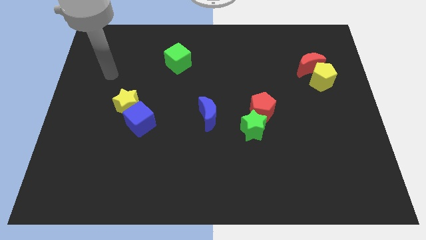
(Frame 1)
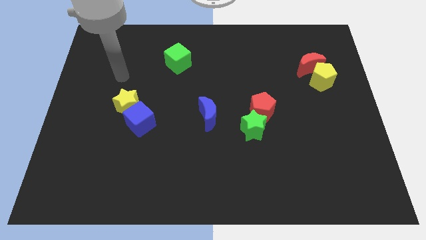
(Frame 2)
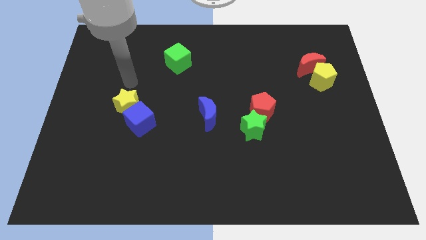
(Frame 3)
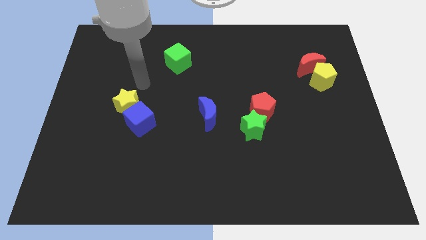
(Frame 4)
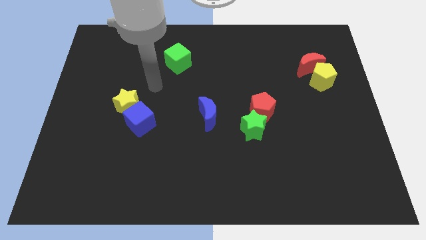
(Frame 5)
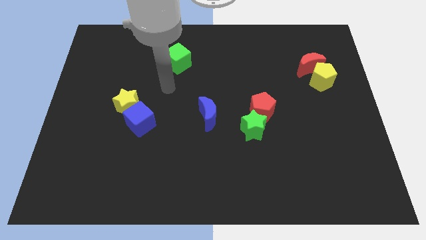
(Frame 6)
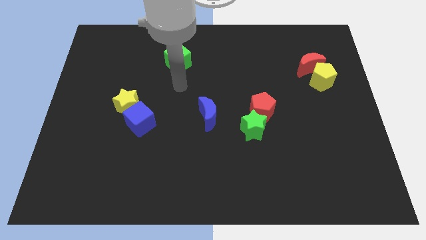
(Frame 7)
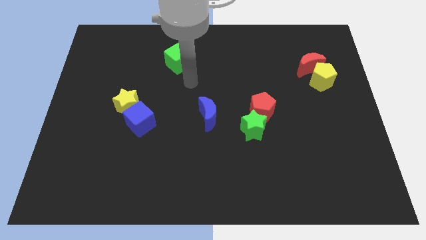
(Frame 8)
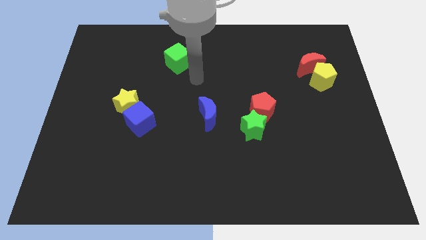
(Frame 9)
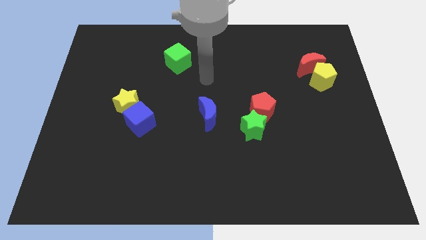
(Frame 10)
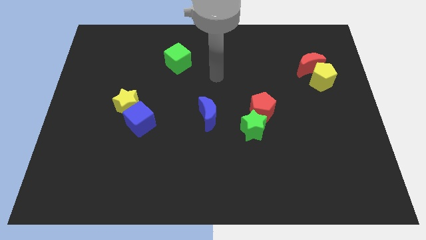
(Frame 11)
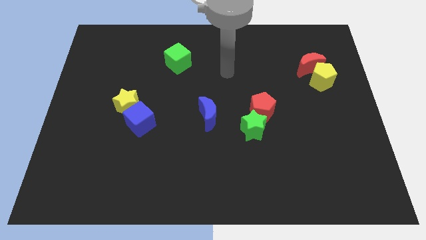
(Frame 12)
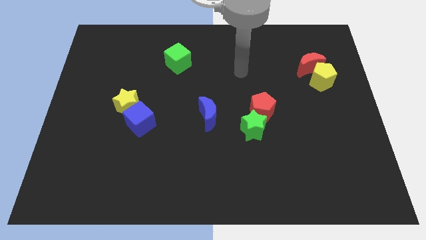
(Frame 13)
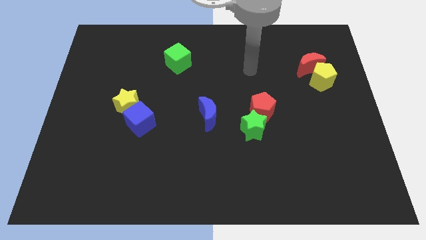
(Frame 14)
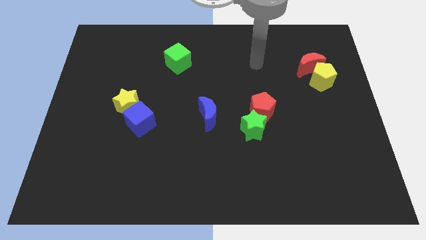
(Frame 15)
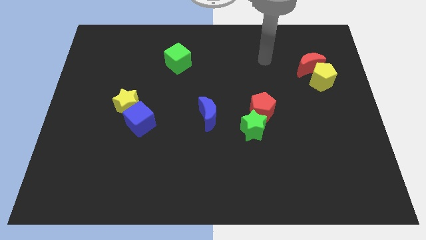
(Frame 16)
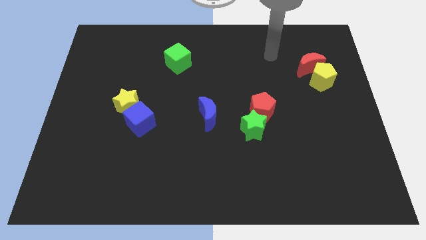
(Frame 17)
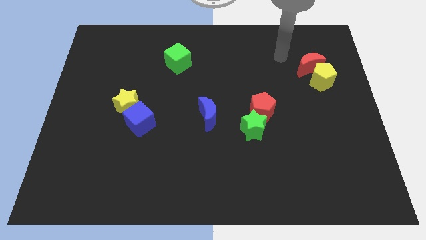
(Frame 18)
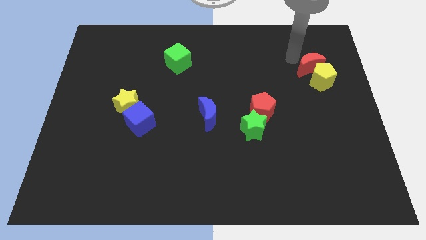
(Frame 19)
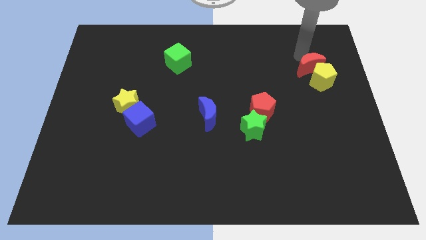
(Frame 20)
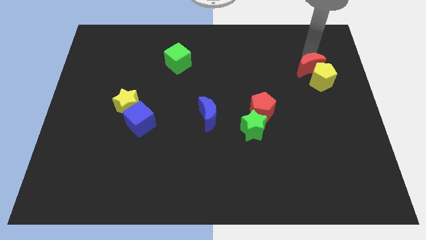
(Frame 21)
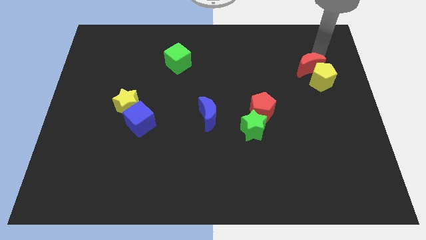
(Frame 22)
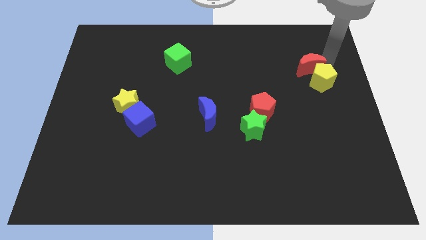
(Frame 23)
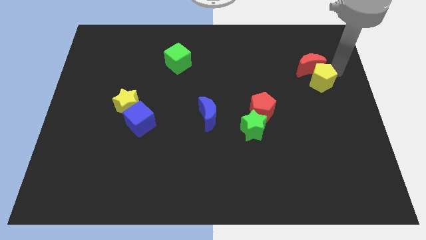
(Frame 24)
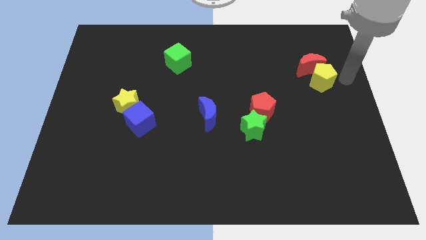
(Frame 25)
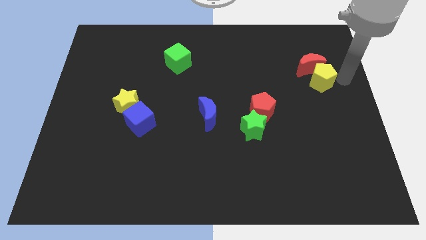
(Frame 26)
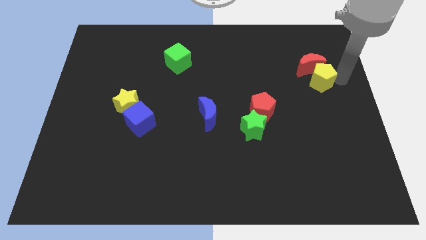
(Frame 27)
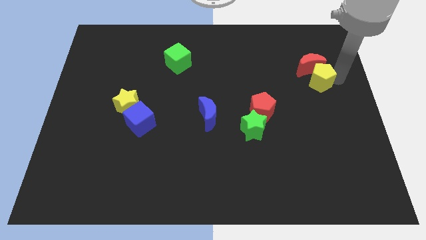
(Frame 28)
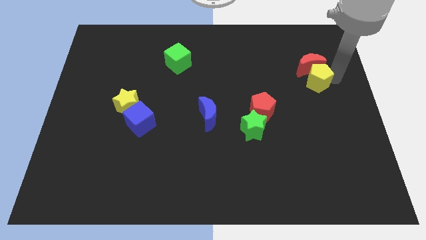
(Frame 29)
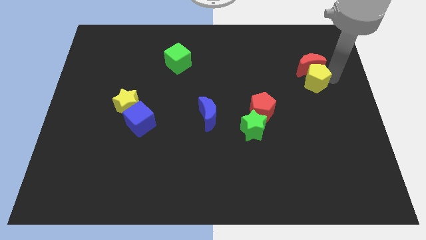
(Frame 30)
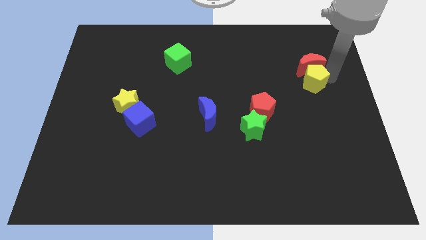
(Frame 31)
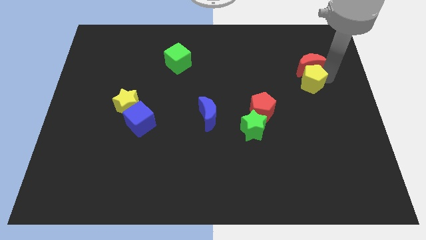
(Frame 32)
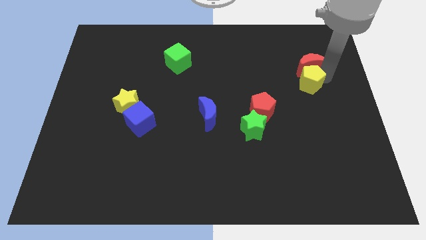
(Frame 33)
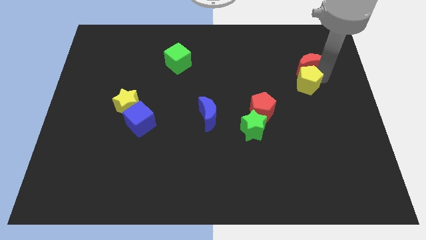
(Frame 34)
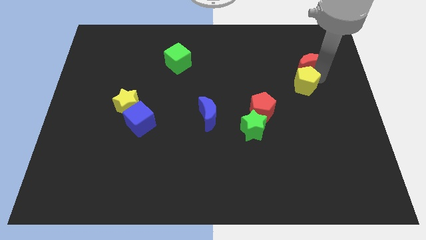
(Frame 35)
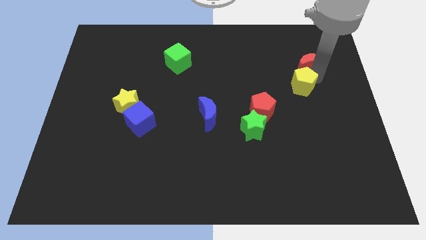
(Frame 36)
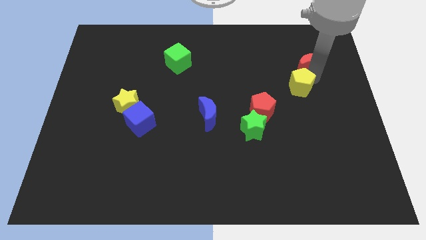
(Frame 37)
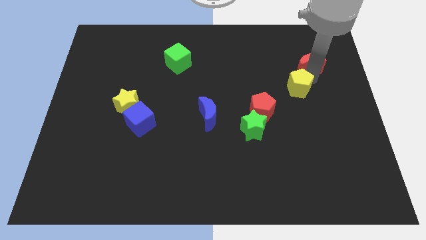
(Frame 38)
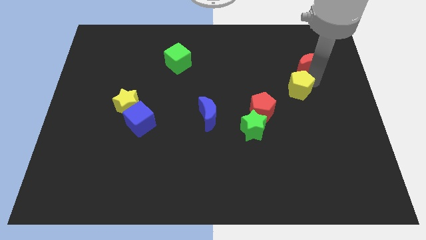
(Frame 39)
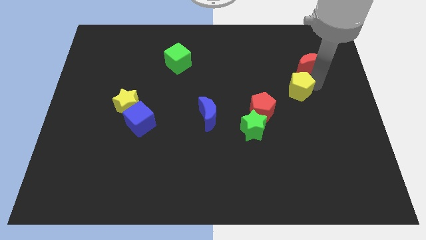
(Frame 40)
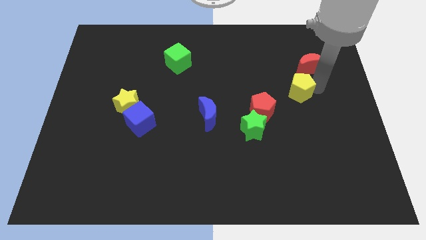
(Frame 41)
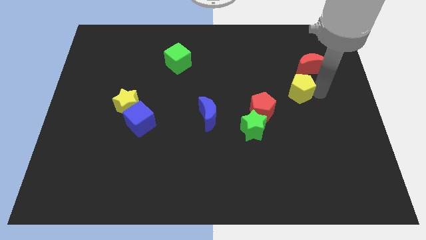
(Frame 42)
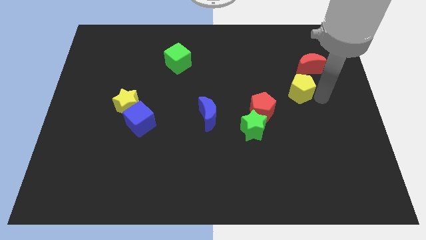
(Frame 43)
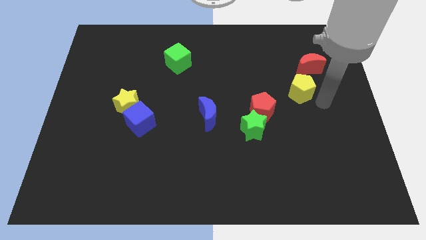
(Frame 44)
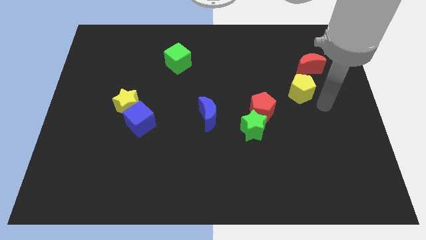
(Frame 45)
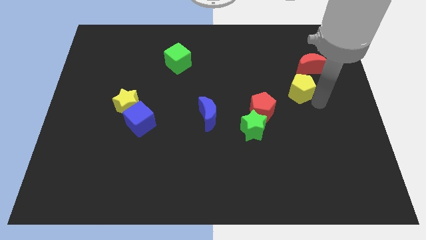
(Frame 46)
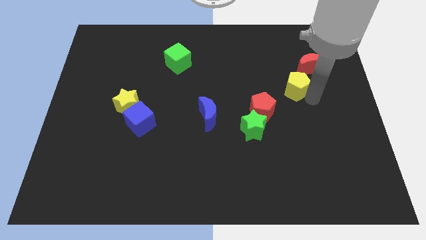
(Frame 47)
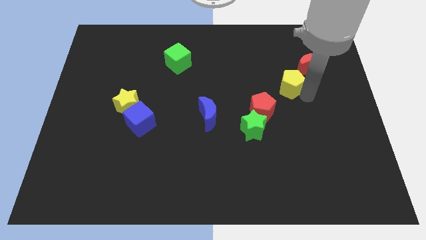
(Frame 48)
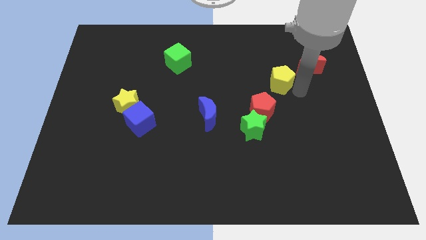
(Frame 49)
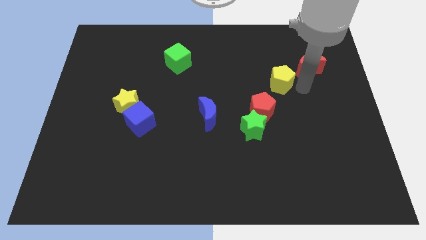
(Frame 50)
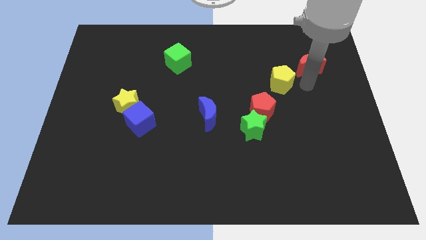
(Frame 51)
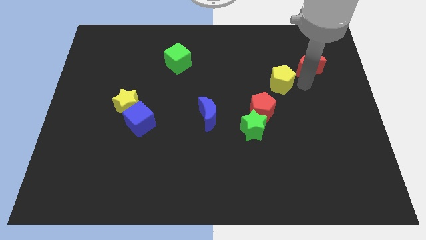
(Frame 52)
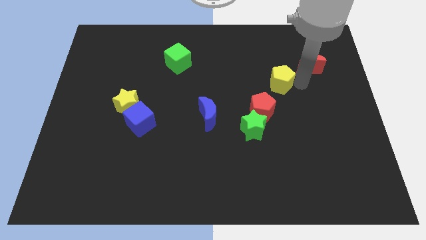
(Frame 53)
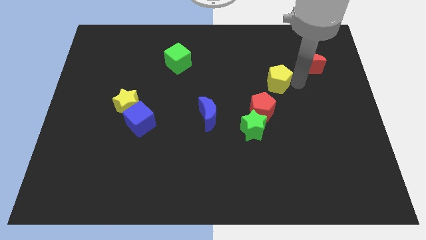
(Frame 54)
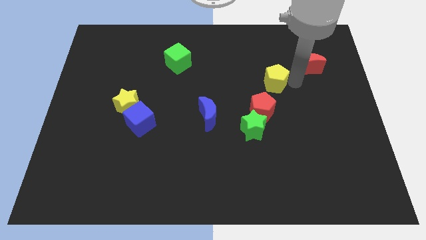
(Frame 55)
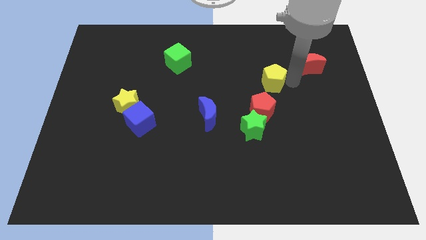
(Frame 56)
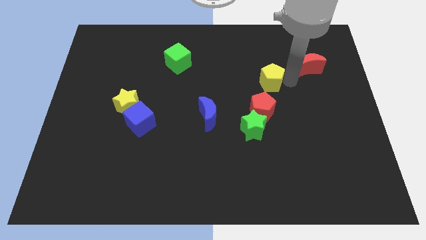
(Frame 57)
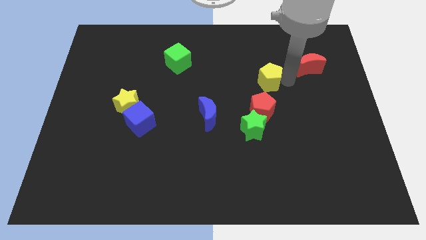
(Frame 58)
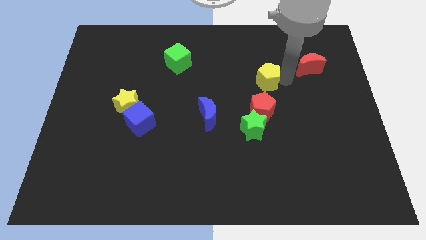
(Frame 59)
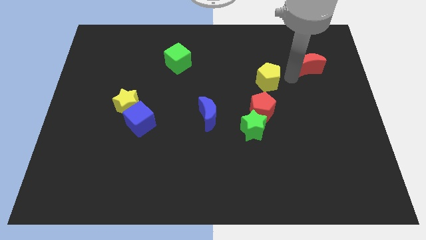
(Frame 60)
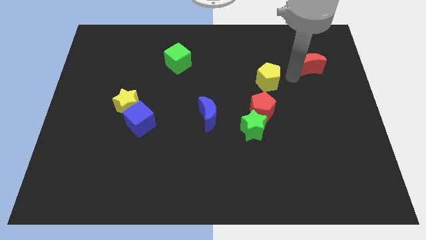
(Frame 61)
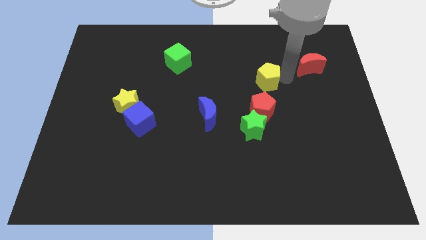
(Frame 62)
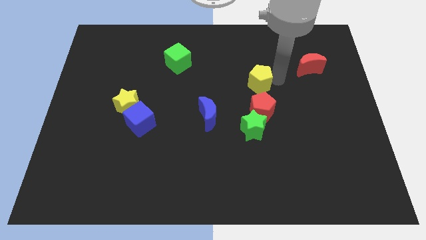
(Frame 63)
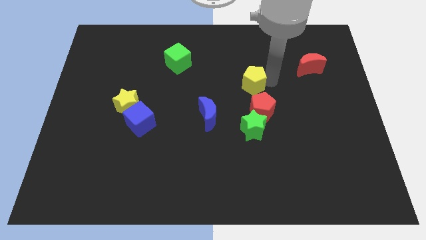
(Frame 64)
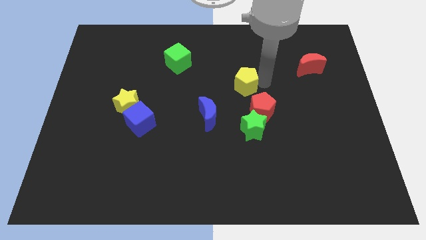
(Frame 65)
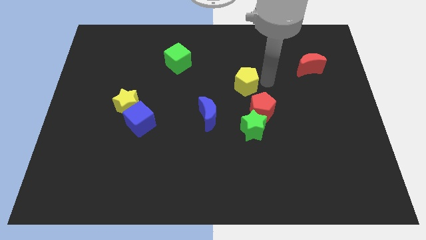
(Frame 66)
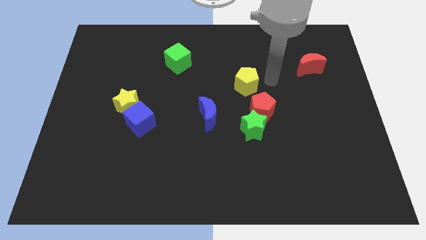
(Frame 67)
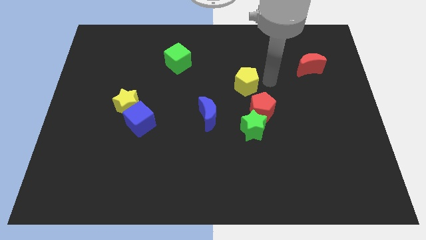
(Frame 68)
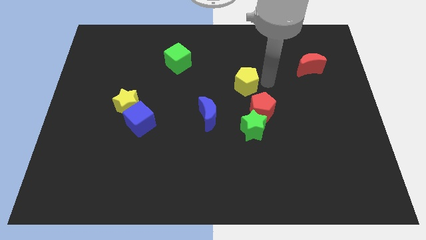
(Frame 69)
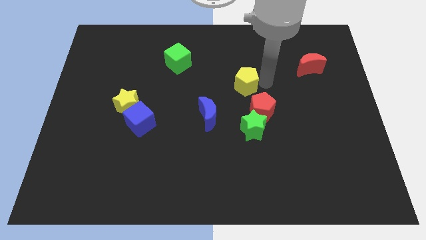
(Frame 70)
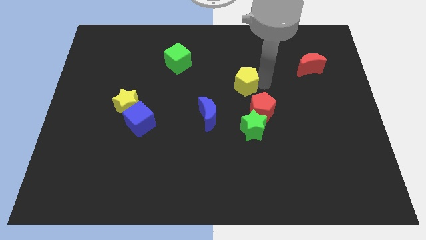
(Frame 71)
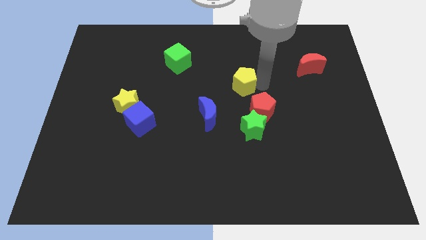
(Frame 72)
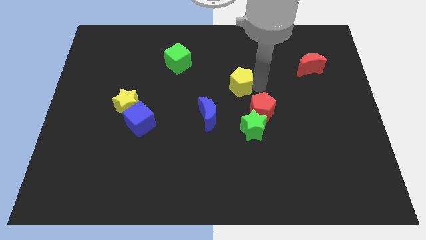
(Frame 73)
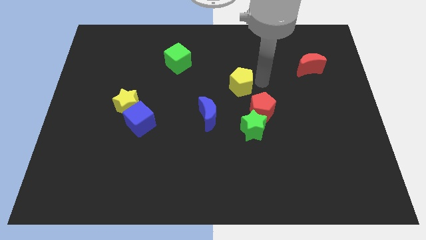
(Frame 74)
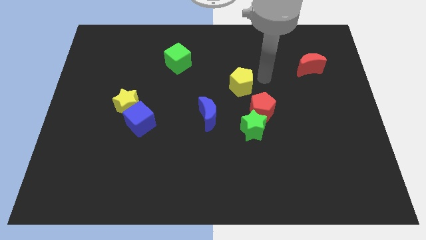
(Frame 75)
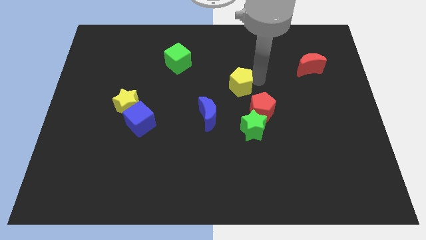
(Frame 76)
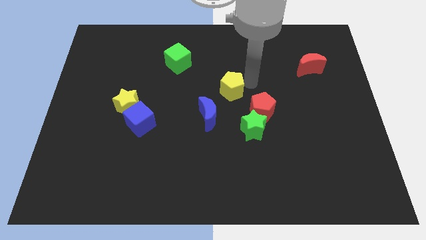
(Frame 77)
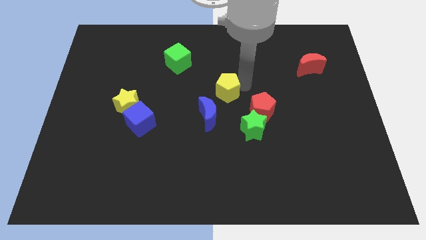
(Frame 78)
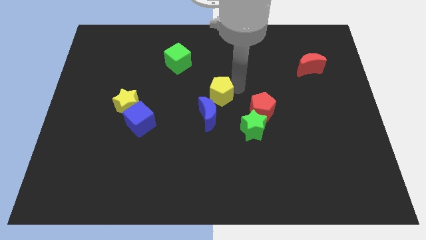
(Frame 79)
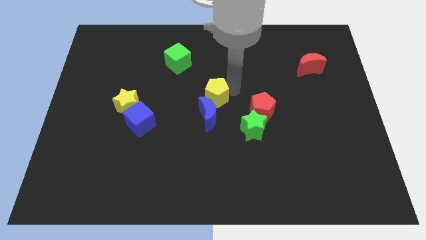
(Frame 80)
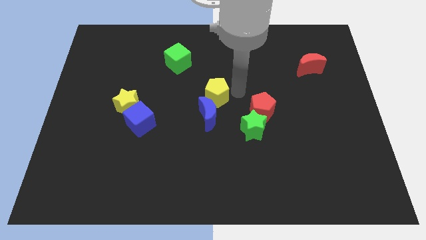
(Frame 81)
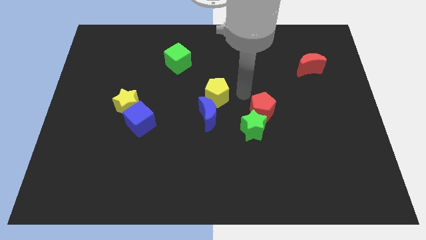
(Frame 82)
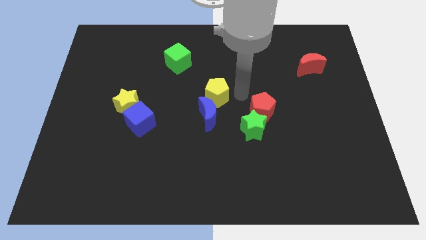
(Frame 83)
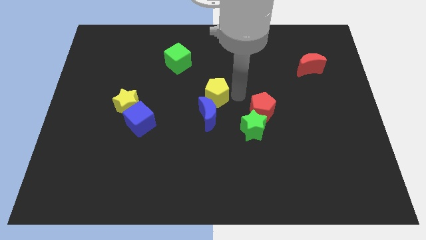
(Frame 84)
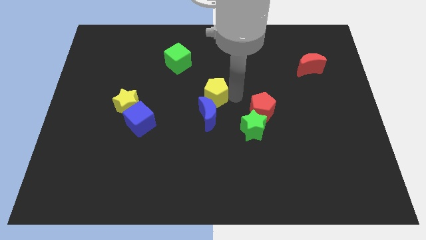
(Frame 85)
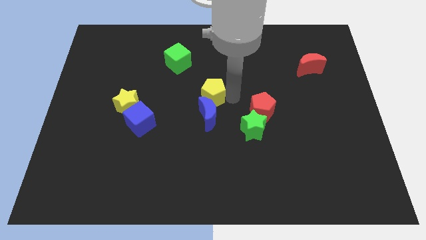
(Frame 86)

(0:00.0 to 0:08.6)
slide the yellow pentagon to the top left of the blue moon
